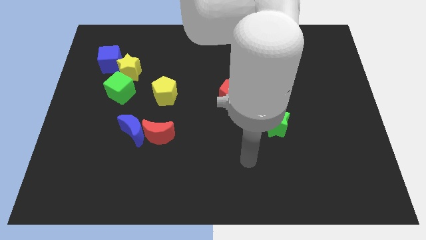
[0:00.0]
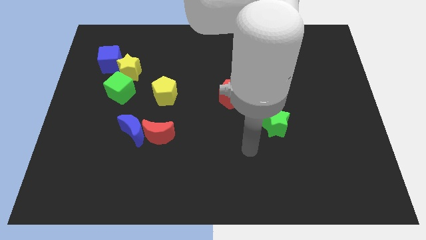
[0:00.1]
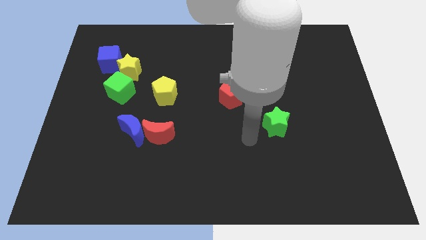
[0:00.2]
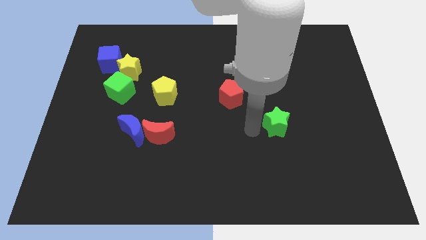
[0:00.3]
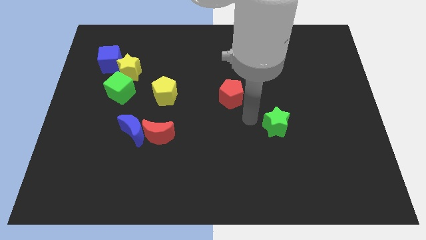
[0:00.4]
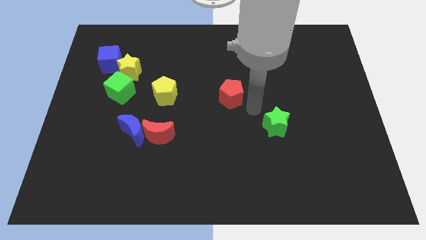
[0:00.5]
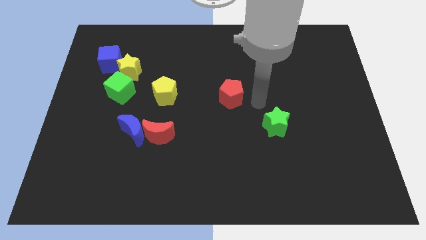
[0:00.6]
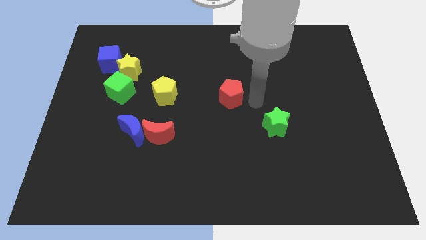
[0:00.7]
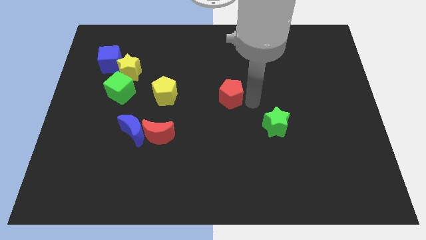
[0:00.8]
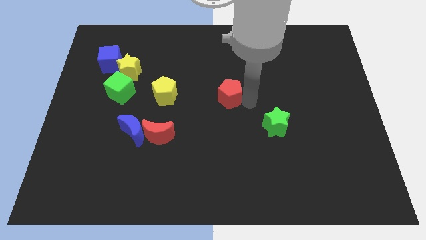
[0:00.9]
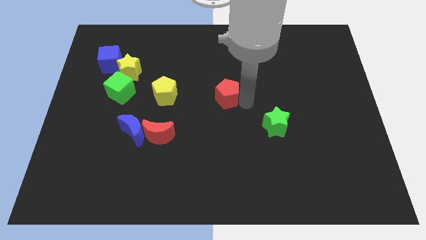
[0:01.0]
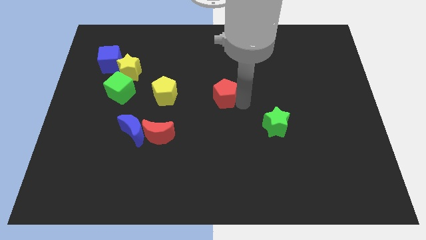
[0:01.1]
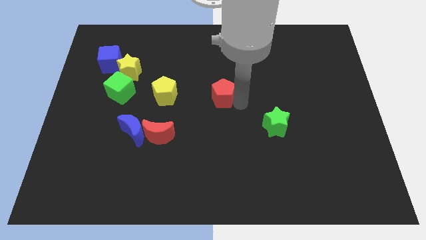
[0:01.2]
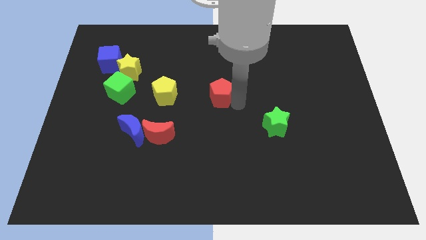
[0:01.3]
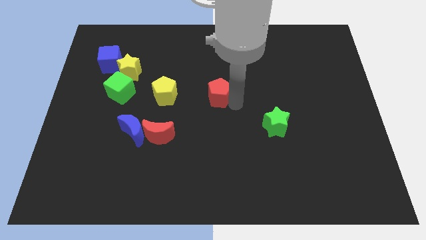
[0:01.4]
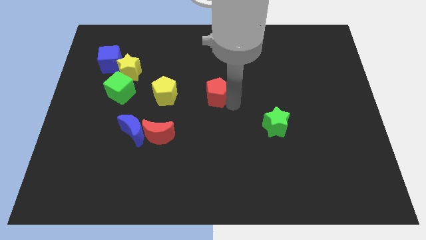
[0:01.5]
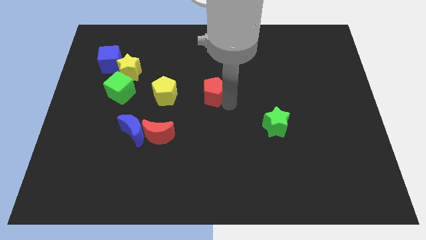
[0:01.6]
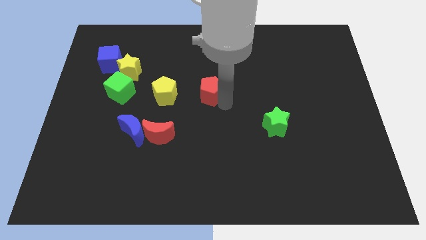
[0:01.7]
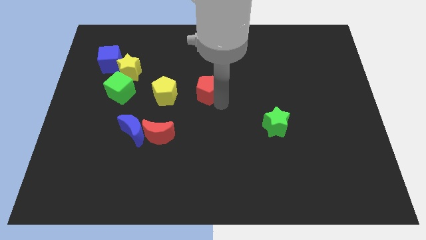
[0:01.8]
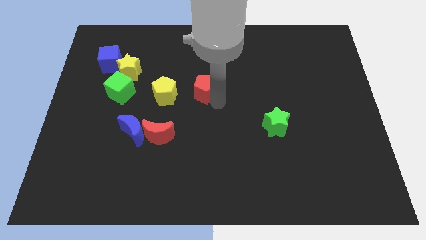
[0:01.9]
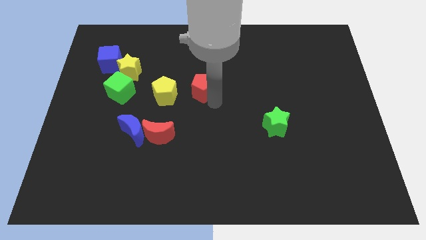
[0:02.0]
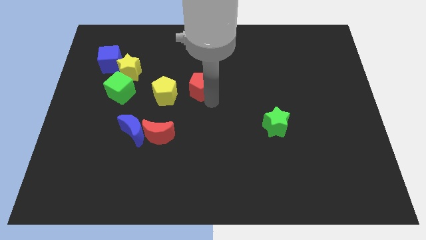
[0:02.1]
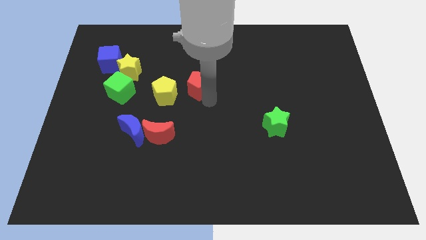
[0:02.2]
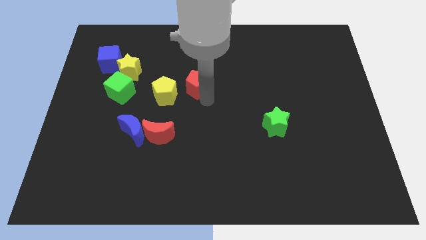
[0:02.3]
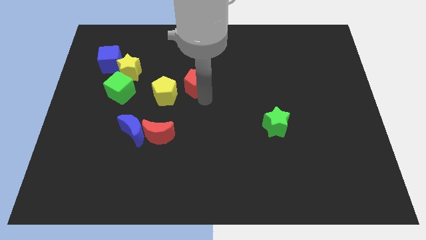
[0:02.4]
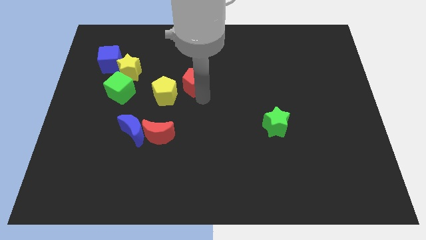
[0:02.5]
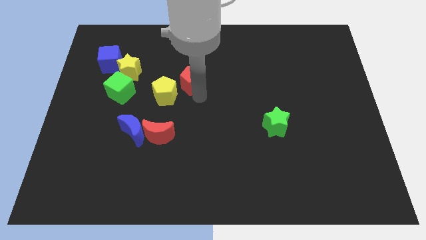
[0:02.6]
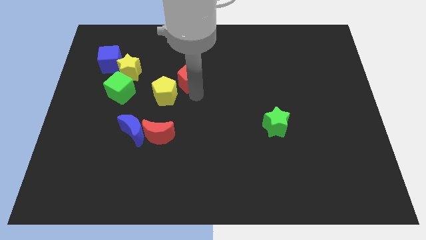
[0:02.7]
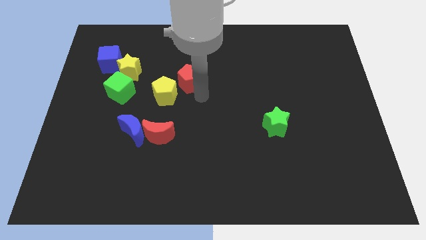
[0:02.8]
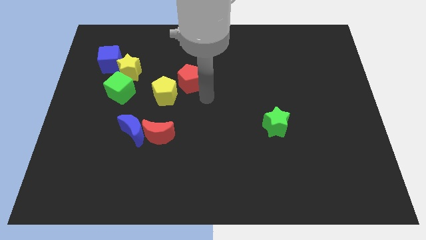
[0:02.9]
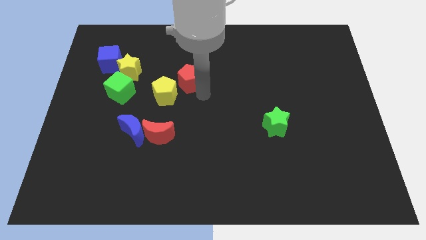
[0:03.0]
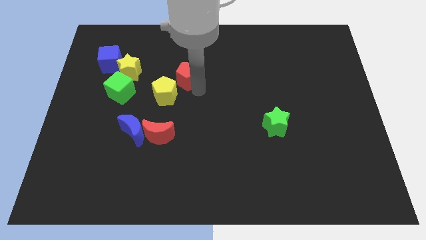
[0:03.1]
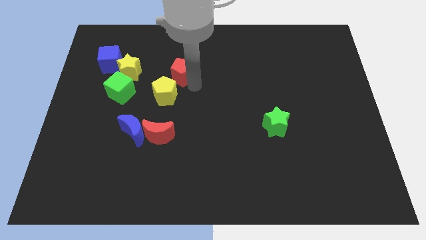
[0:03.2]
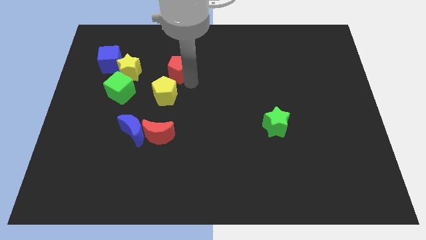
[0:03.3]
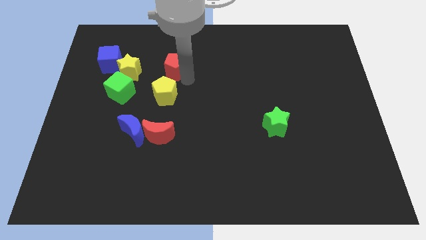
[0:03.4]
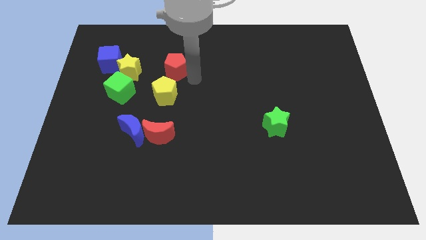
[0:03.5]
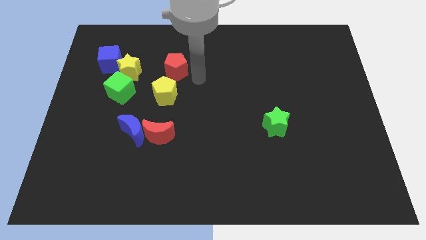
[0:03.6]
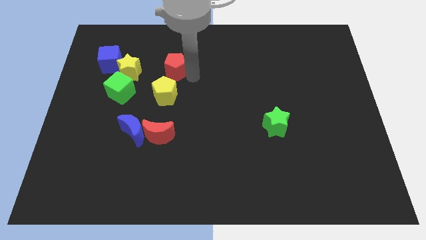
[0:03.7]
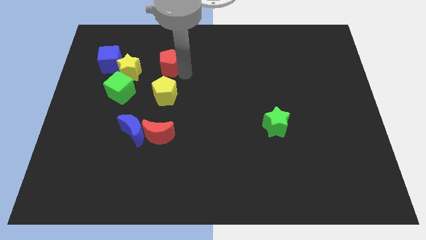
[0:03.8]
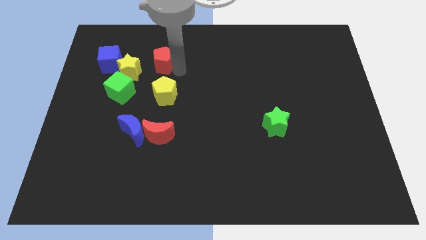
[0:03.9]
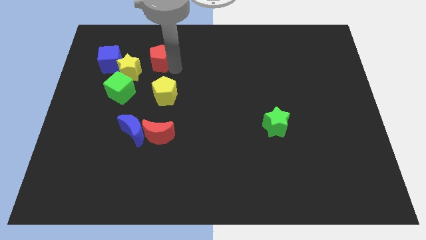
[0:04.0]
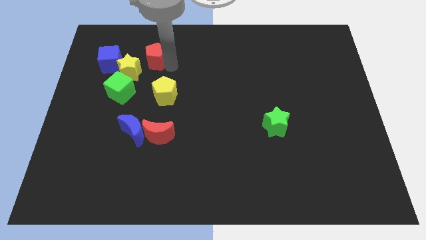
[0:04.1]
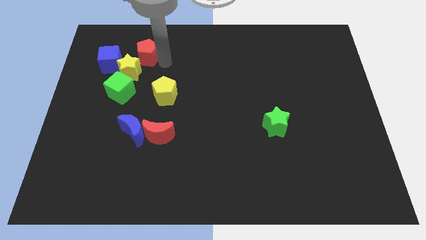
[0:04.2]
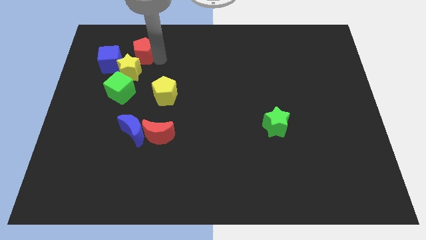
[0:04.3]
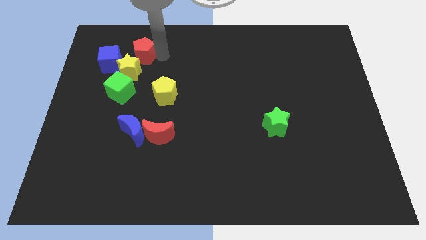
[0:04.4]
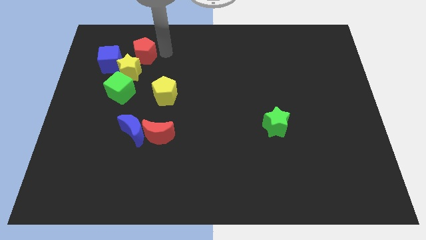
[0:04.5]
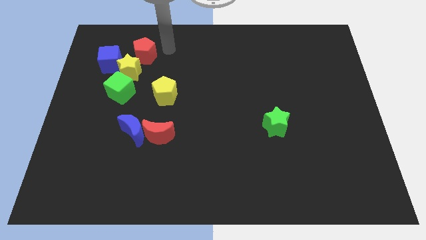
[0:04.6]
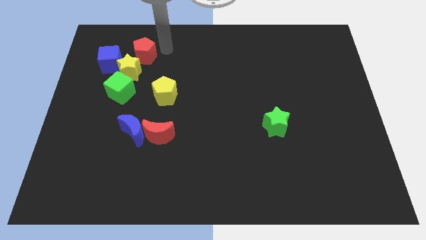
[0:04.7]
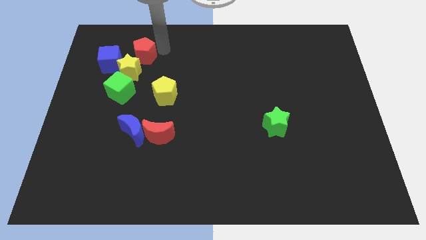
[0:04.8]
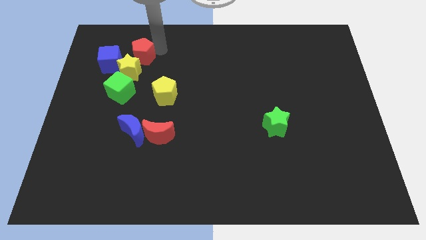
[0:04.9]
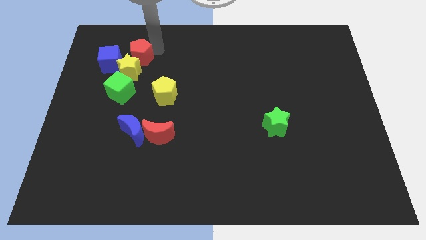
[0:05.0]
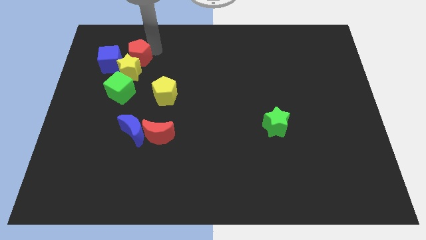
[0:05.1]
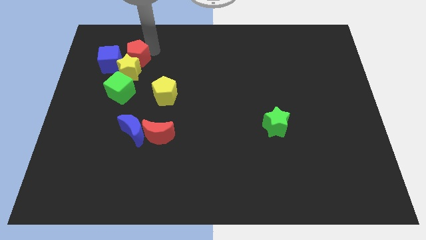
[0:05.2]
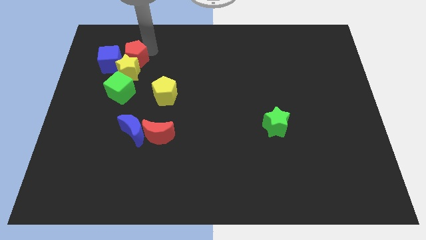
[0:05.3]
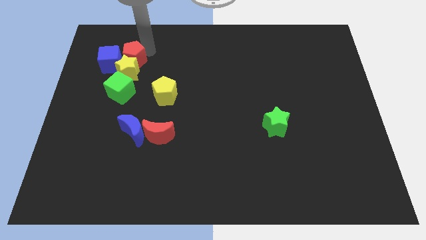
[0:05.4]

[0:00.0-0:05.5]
slide the red pentagon towards the blue cube

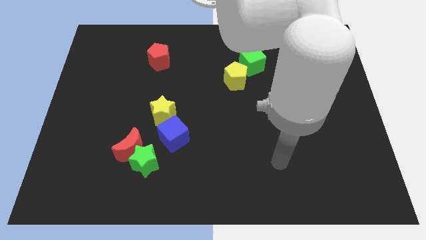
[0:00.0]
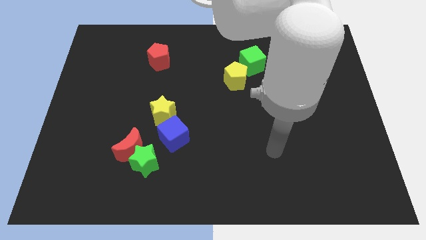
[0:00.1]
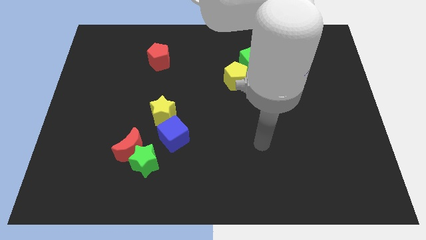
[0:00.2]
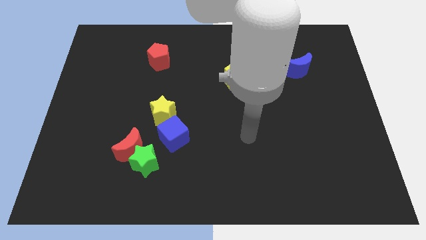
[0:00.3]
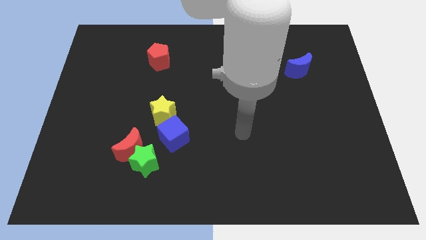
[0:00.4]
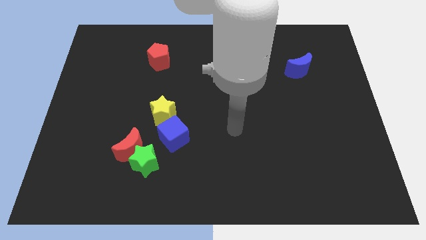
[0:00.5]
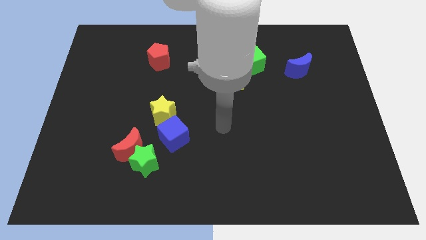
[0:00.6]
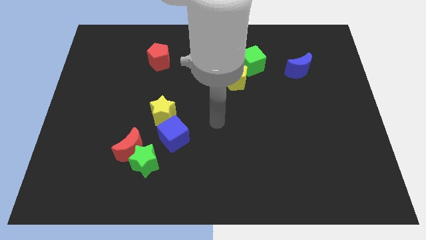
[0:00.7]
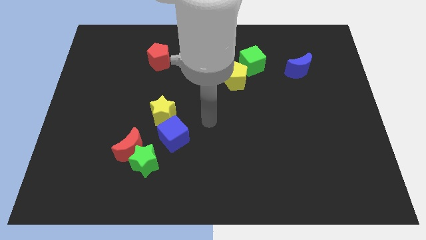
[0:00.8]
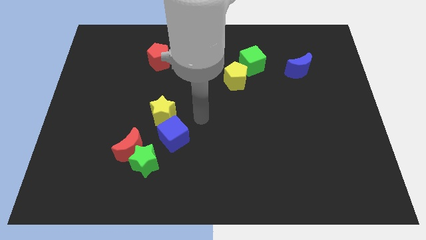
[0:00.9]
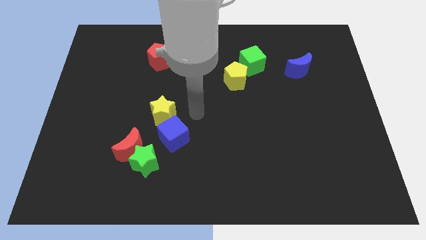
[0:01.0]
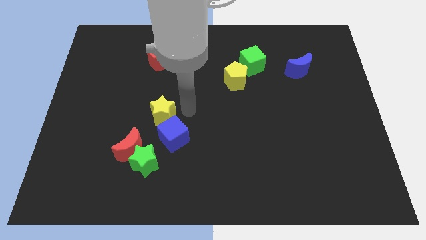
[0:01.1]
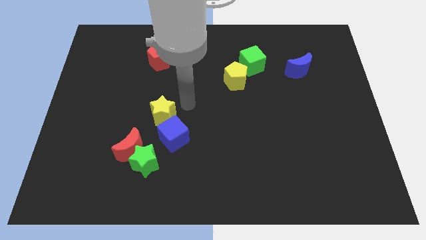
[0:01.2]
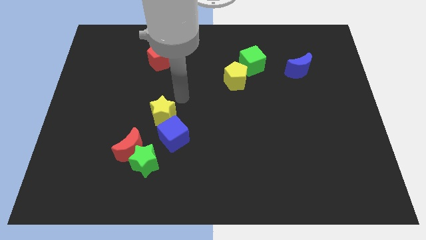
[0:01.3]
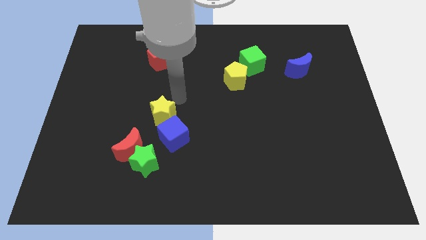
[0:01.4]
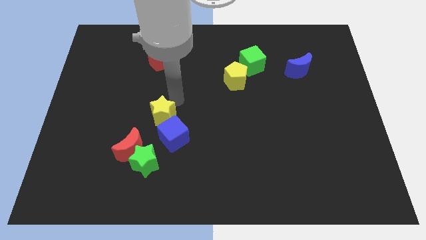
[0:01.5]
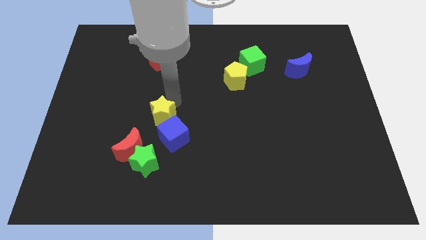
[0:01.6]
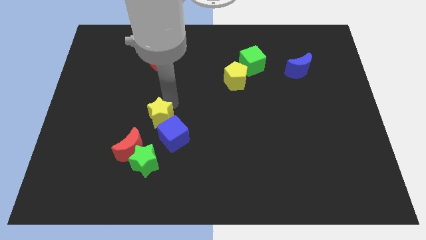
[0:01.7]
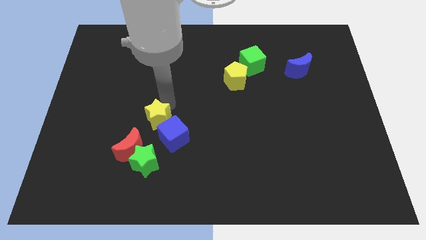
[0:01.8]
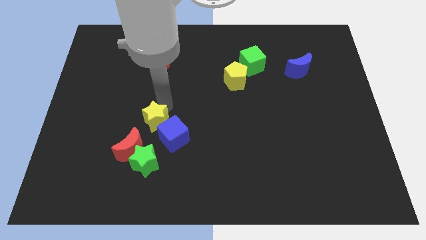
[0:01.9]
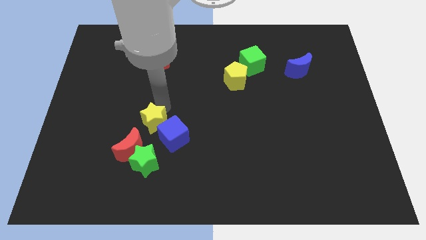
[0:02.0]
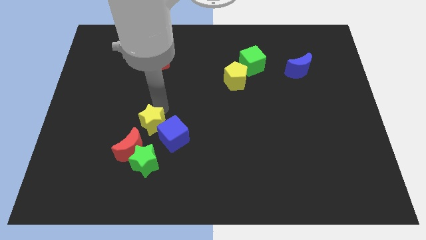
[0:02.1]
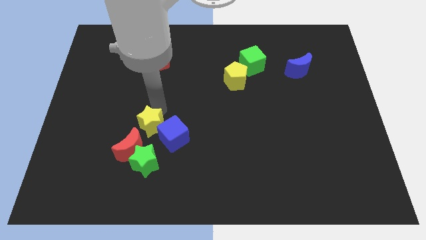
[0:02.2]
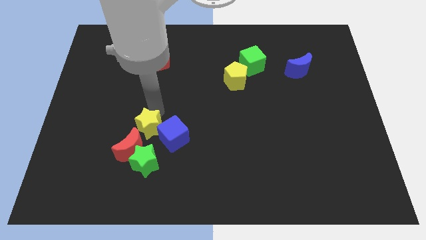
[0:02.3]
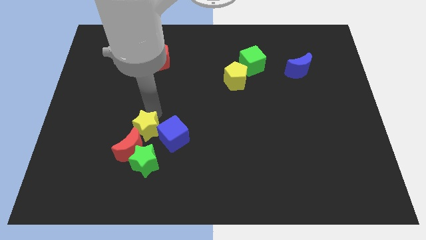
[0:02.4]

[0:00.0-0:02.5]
move the yellow star next to the red moon
